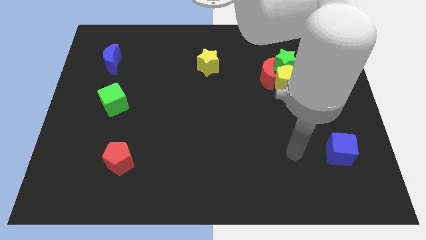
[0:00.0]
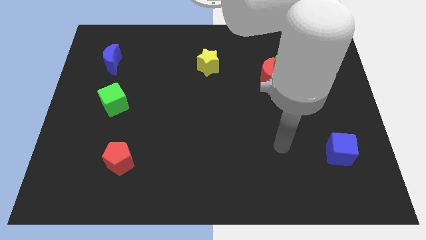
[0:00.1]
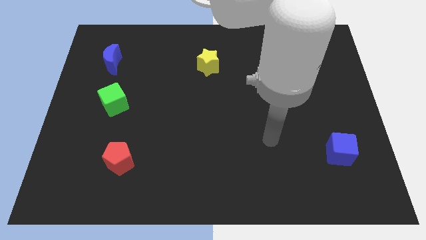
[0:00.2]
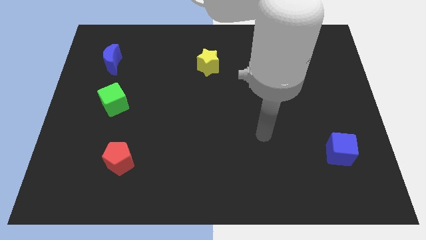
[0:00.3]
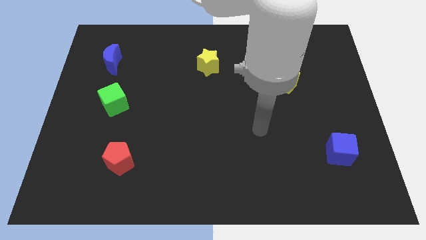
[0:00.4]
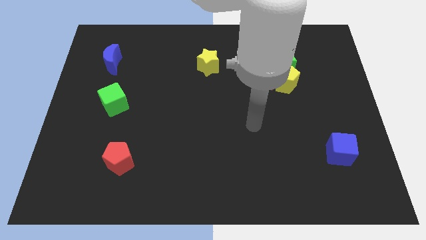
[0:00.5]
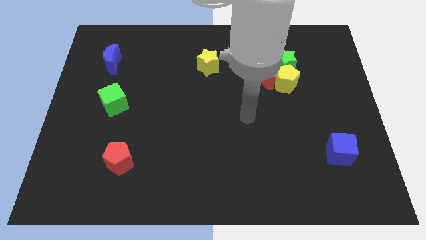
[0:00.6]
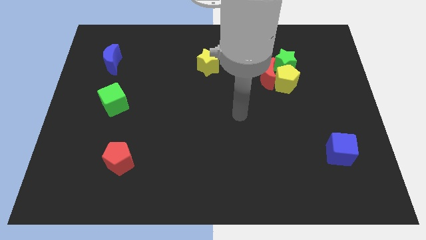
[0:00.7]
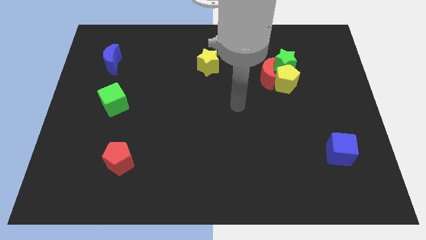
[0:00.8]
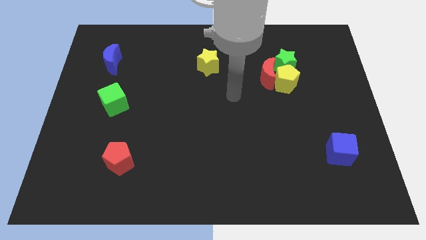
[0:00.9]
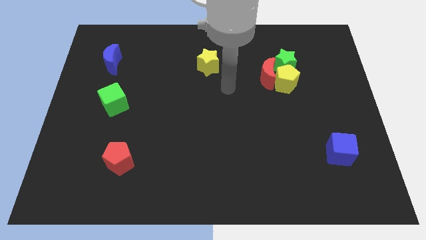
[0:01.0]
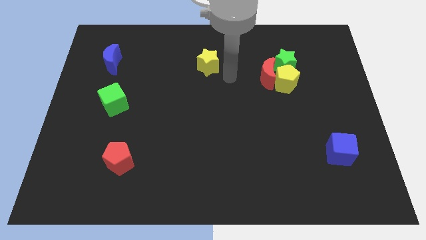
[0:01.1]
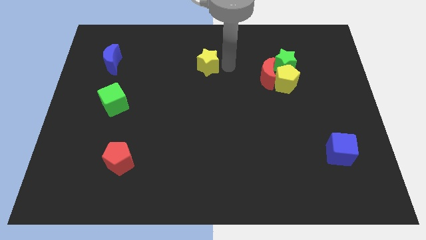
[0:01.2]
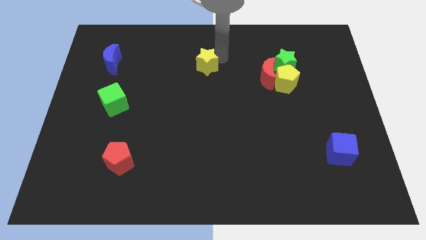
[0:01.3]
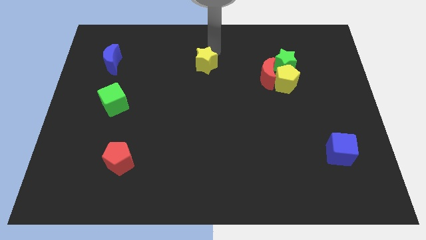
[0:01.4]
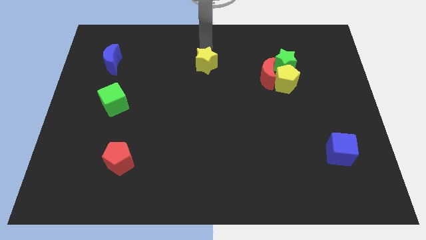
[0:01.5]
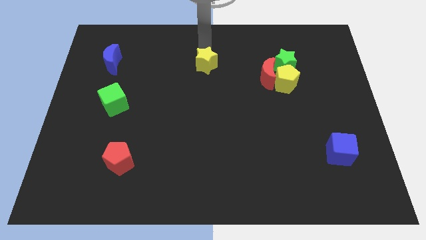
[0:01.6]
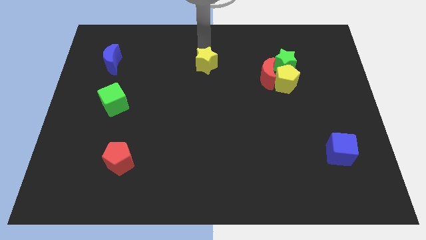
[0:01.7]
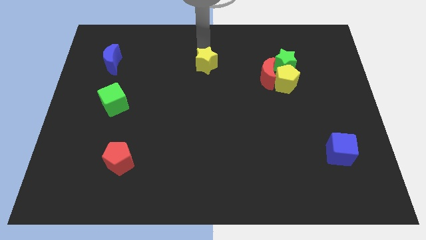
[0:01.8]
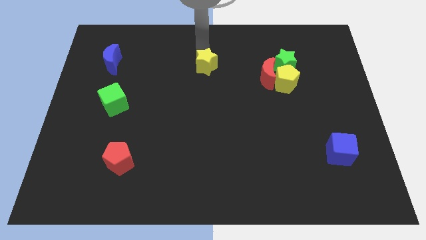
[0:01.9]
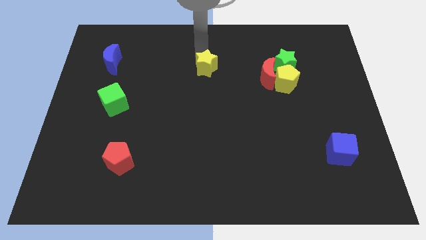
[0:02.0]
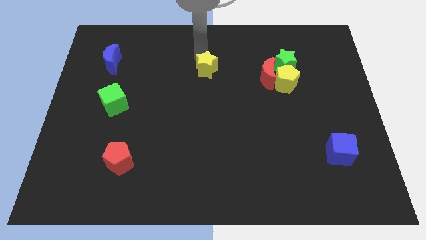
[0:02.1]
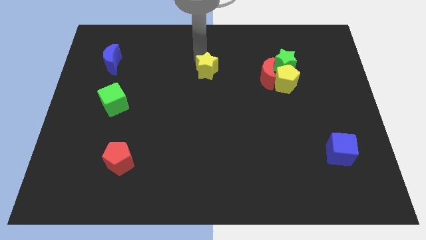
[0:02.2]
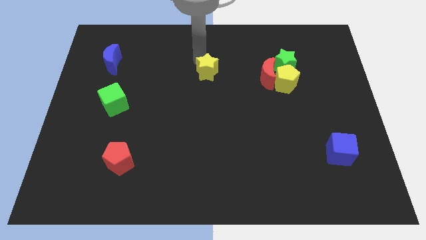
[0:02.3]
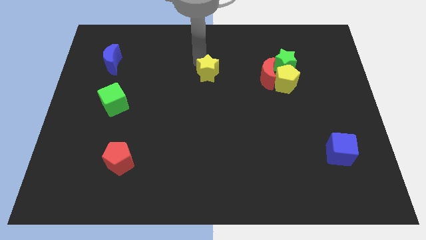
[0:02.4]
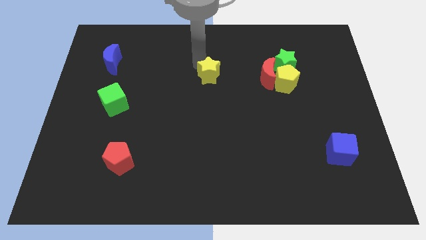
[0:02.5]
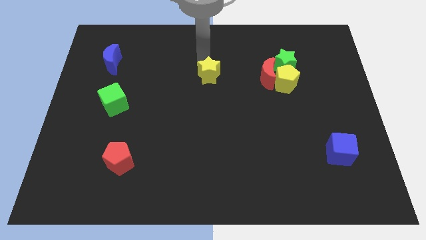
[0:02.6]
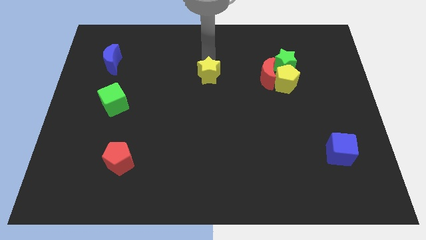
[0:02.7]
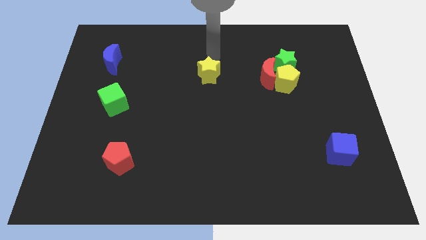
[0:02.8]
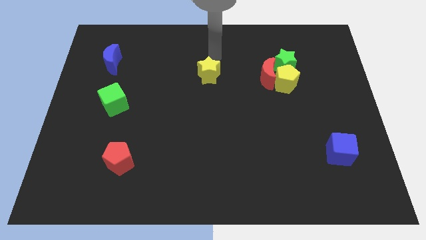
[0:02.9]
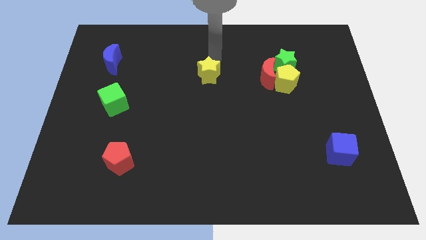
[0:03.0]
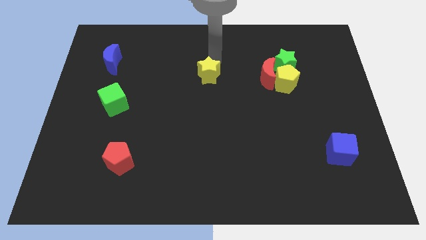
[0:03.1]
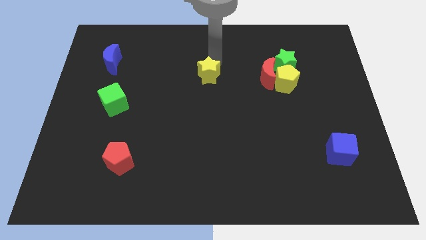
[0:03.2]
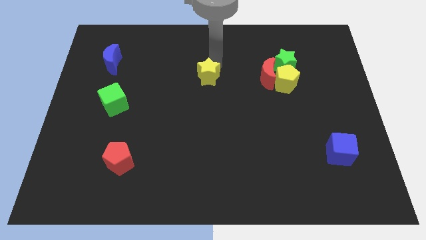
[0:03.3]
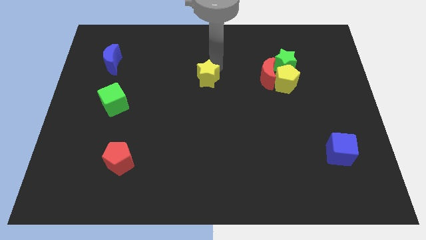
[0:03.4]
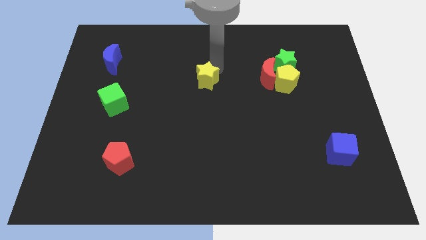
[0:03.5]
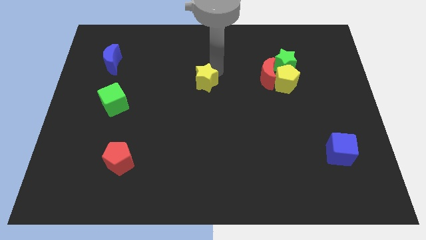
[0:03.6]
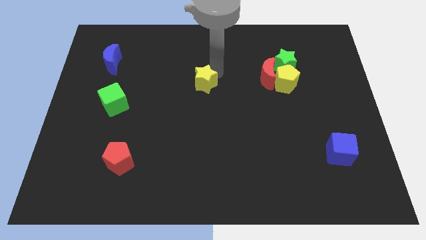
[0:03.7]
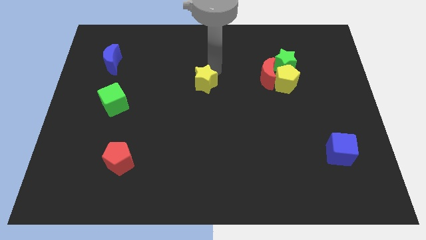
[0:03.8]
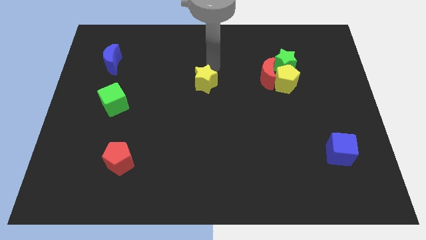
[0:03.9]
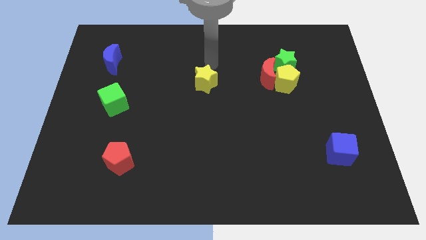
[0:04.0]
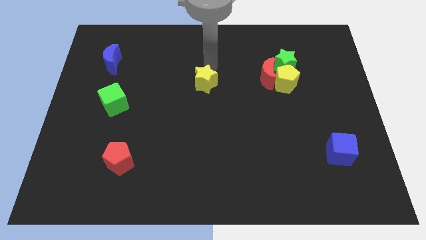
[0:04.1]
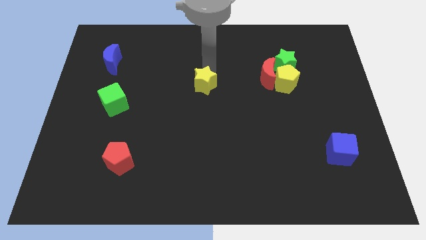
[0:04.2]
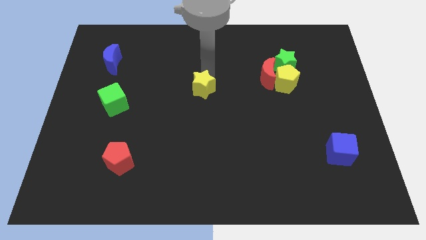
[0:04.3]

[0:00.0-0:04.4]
move the yellow star somewhat downwards

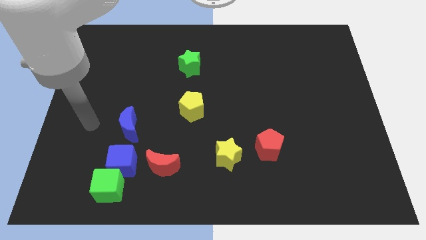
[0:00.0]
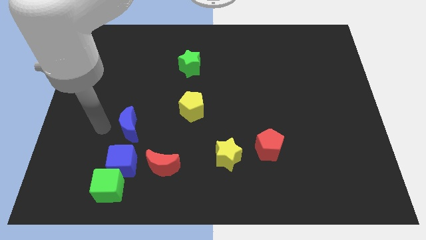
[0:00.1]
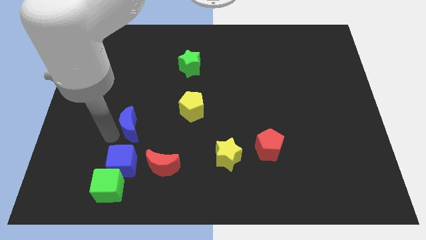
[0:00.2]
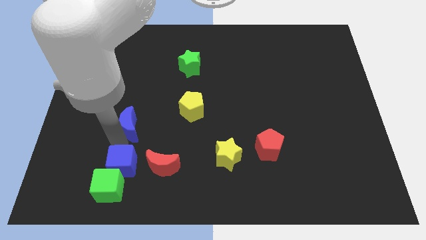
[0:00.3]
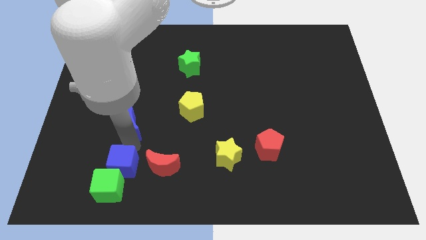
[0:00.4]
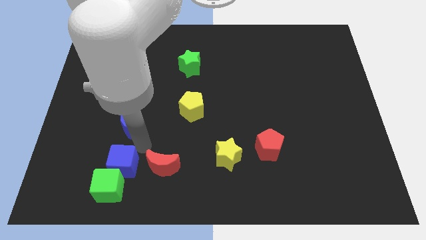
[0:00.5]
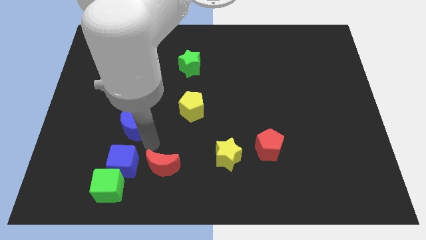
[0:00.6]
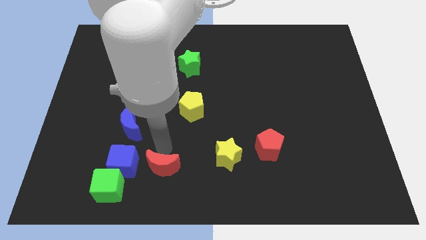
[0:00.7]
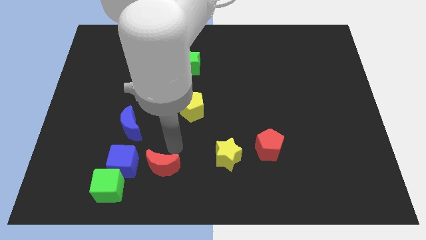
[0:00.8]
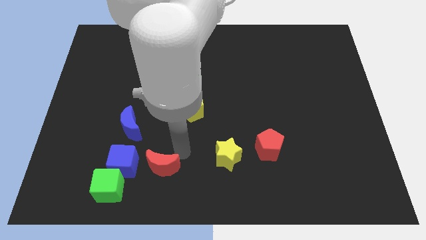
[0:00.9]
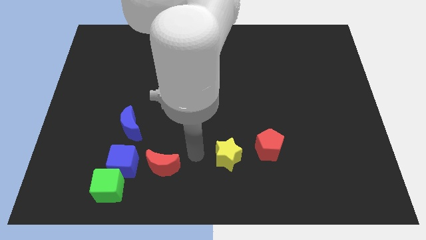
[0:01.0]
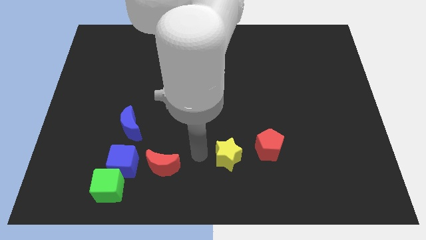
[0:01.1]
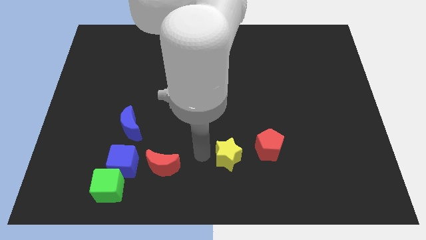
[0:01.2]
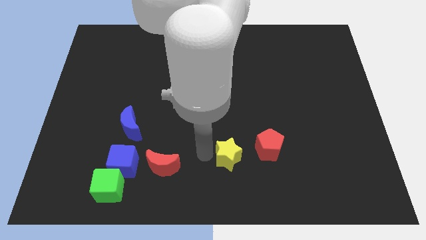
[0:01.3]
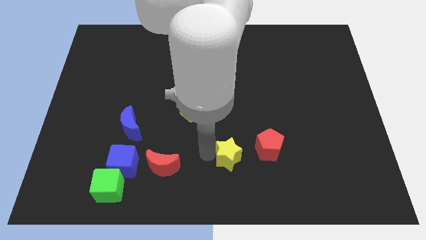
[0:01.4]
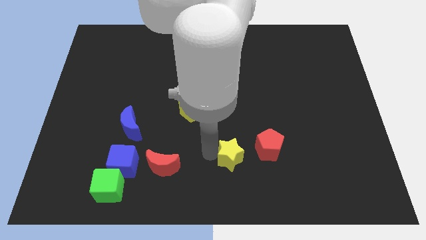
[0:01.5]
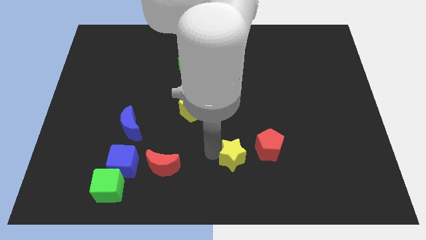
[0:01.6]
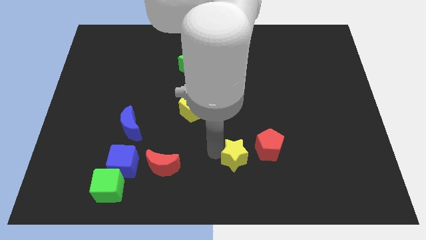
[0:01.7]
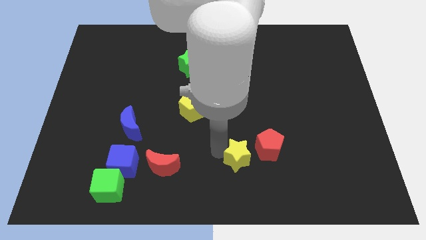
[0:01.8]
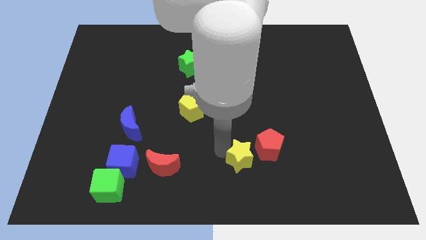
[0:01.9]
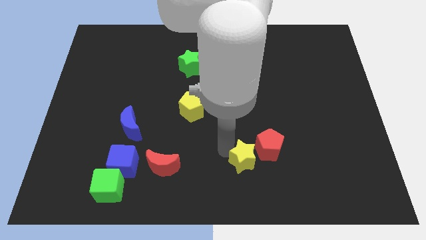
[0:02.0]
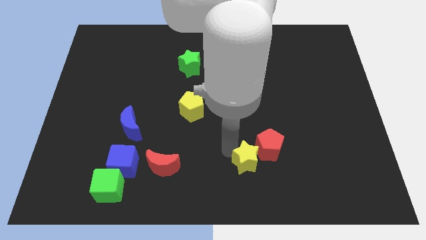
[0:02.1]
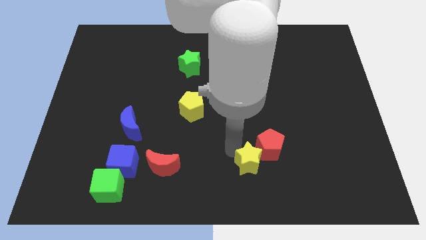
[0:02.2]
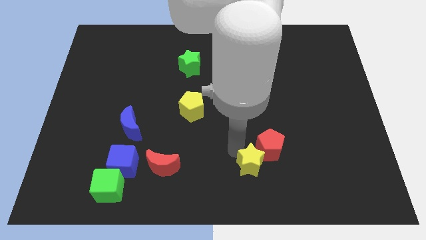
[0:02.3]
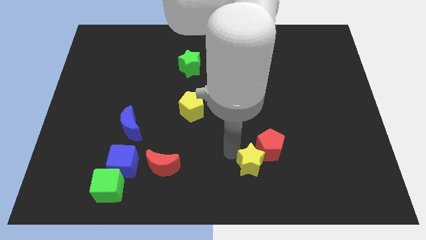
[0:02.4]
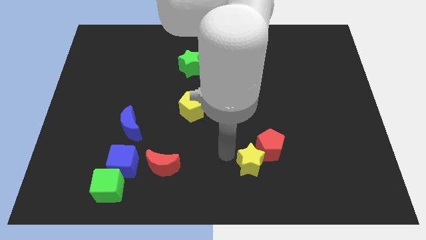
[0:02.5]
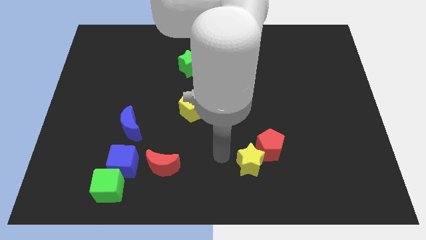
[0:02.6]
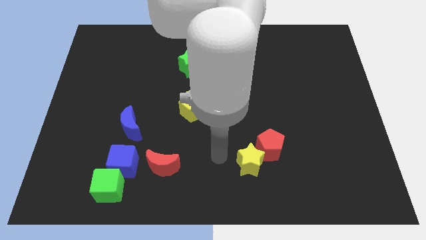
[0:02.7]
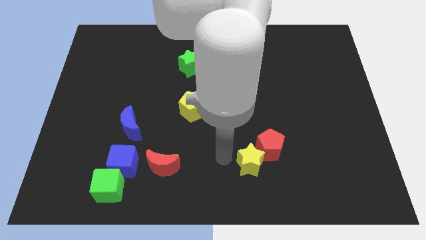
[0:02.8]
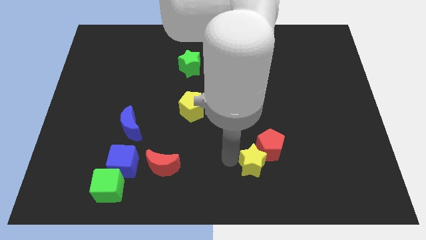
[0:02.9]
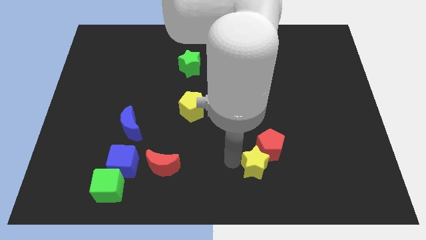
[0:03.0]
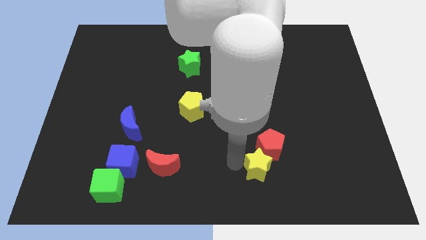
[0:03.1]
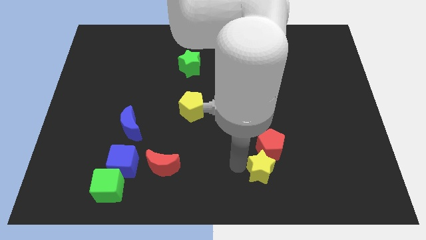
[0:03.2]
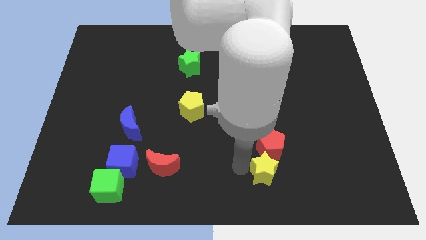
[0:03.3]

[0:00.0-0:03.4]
move the yellow star to the right a little bit

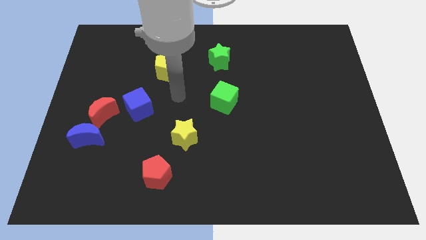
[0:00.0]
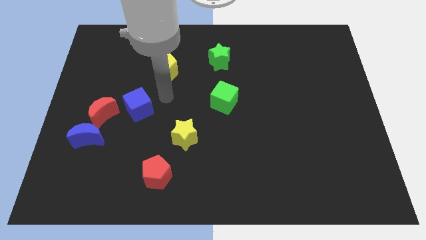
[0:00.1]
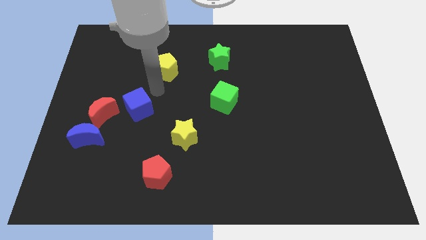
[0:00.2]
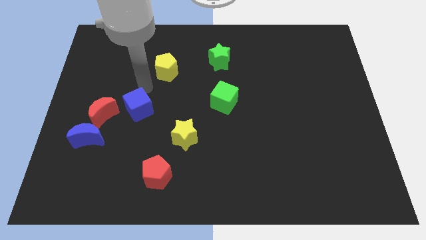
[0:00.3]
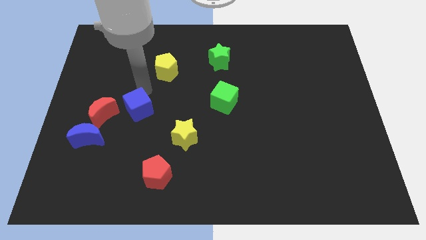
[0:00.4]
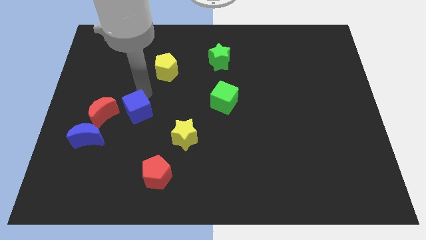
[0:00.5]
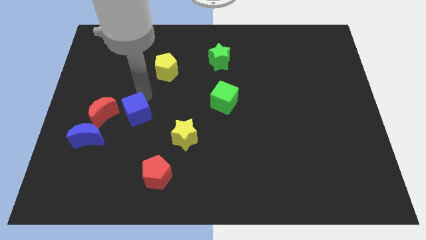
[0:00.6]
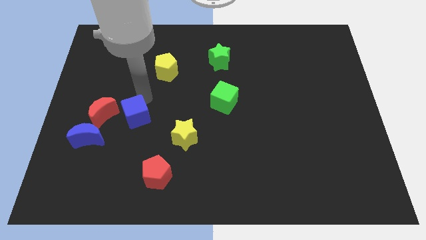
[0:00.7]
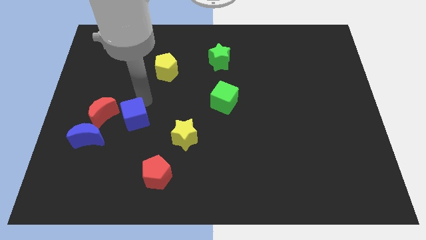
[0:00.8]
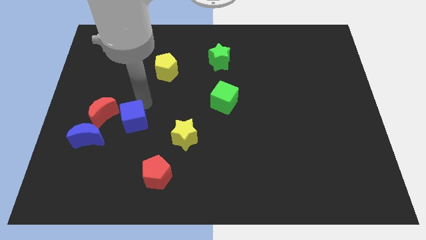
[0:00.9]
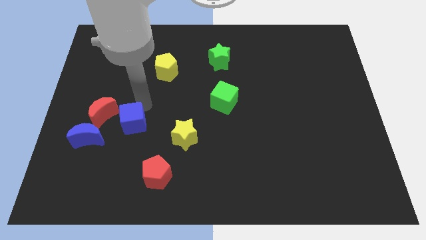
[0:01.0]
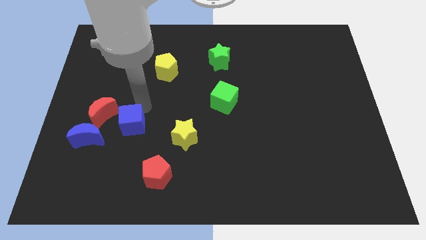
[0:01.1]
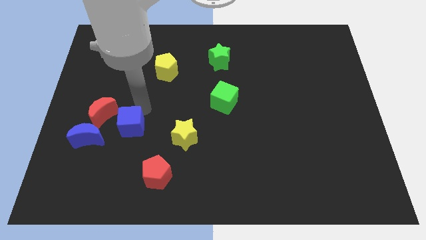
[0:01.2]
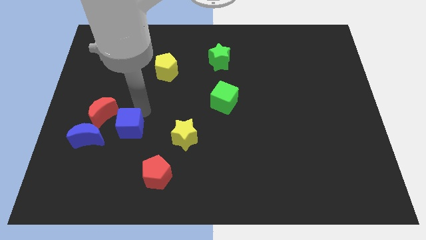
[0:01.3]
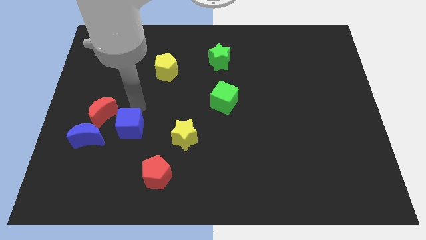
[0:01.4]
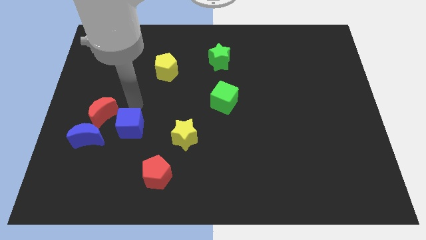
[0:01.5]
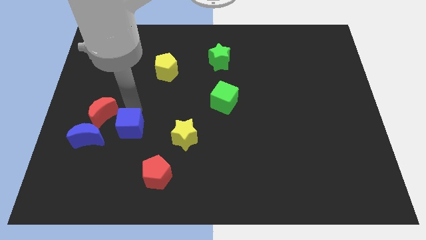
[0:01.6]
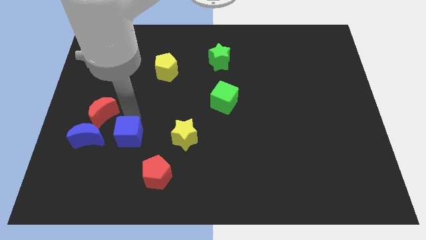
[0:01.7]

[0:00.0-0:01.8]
move the blue cube down slightly
